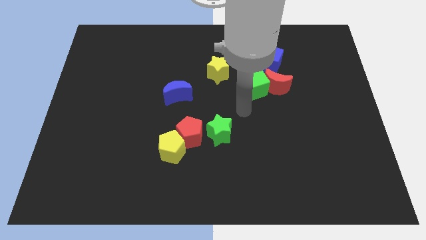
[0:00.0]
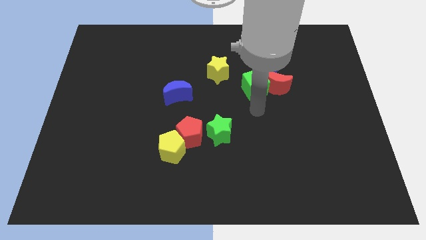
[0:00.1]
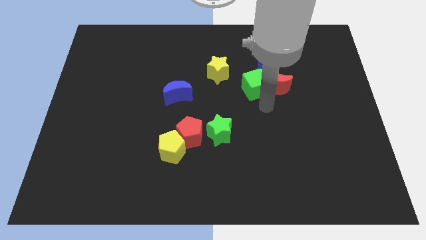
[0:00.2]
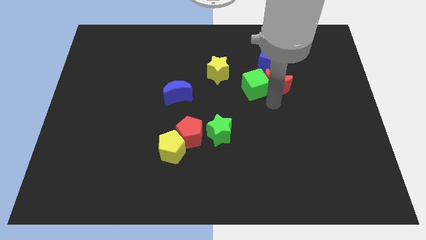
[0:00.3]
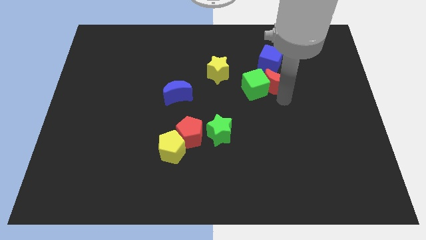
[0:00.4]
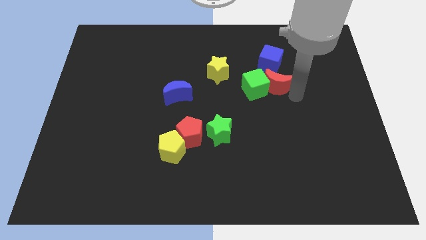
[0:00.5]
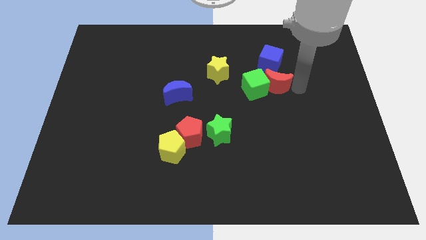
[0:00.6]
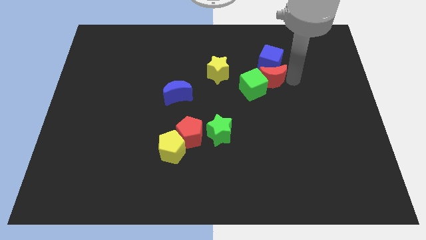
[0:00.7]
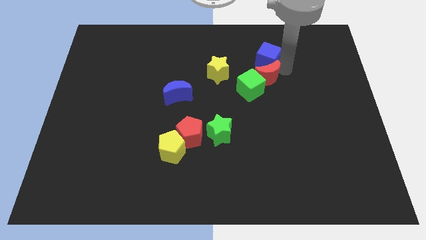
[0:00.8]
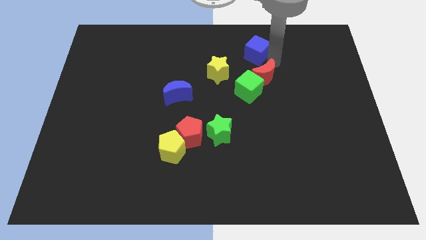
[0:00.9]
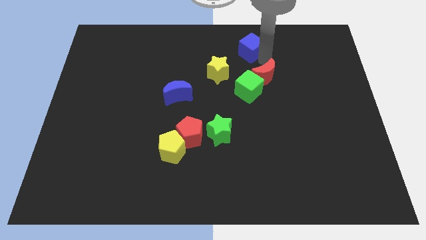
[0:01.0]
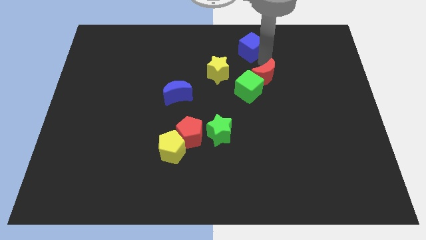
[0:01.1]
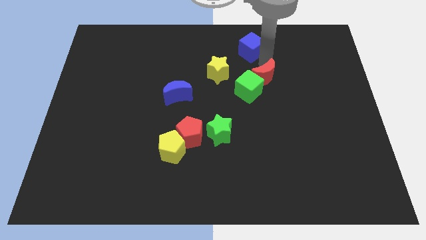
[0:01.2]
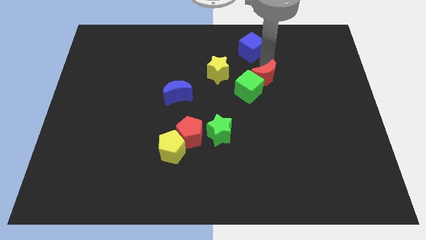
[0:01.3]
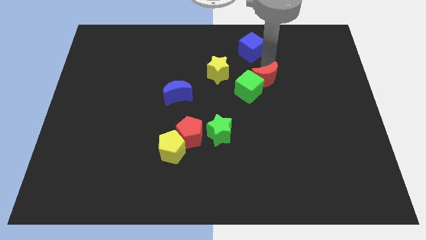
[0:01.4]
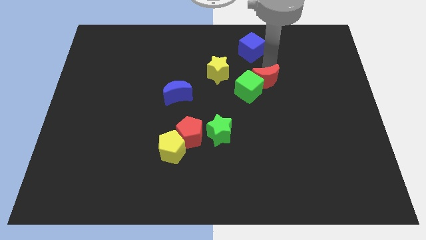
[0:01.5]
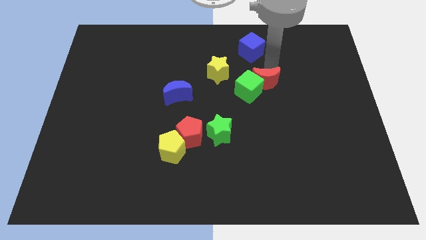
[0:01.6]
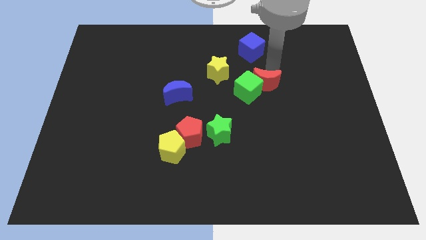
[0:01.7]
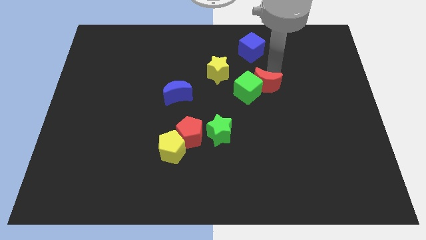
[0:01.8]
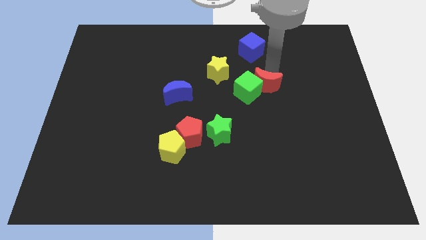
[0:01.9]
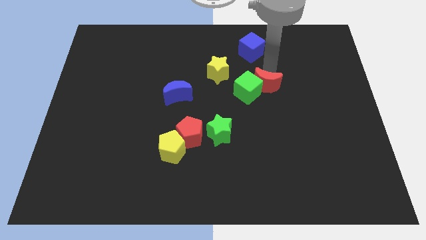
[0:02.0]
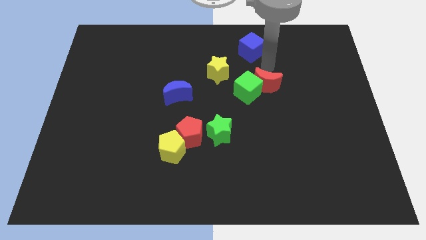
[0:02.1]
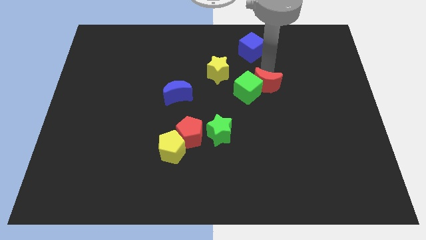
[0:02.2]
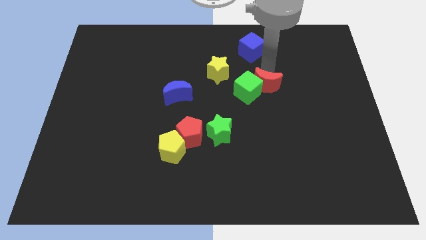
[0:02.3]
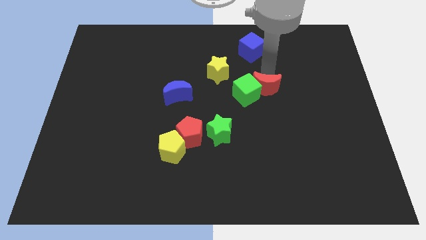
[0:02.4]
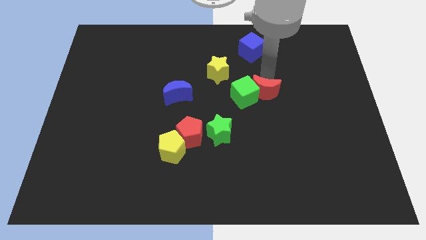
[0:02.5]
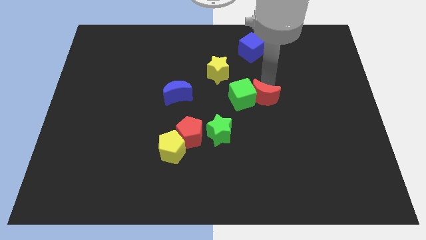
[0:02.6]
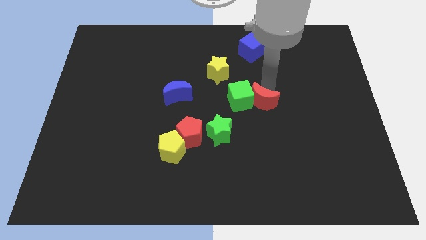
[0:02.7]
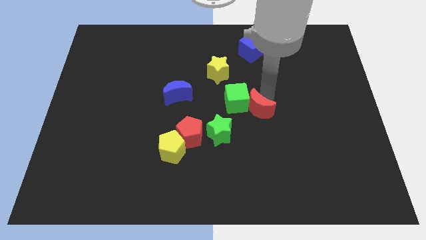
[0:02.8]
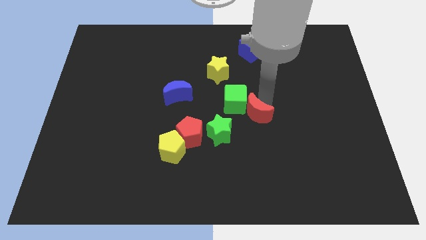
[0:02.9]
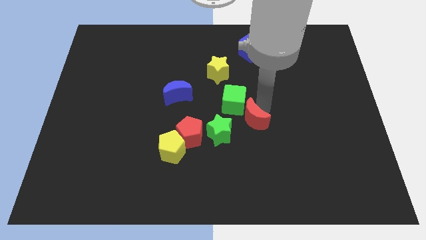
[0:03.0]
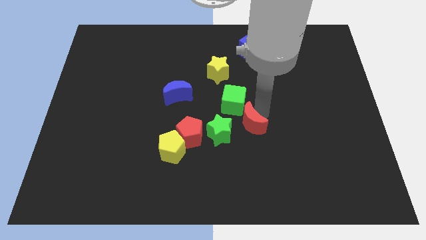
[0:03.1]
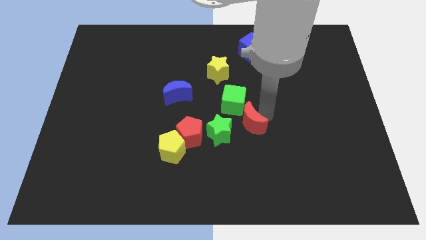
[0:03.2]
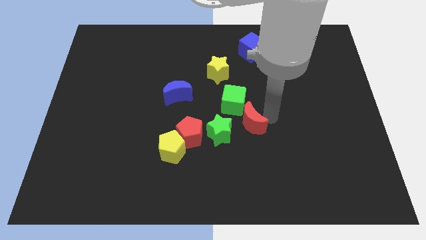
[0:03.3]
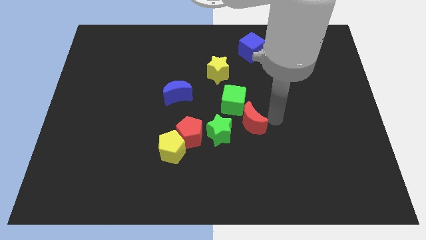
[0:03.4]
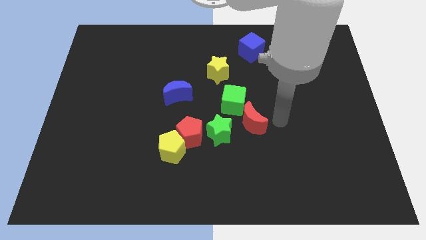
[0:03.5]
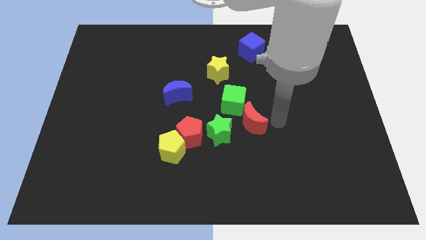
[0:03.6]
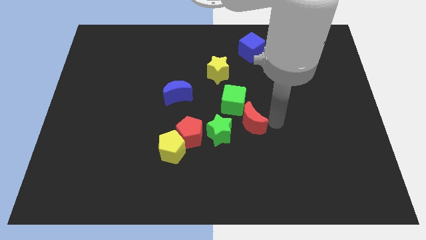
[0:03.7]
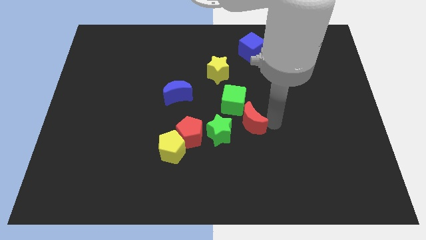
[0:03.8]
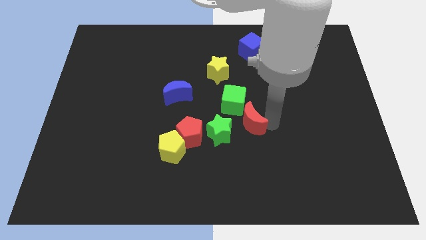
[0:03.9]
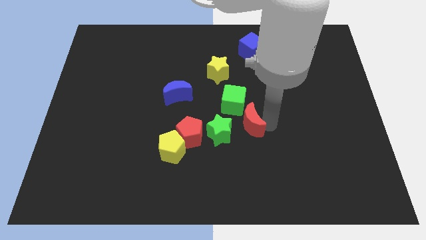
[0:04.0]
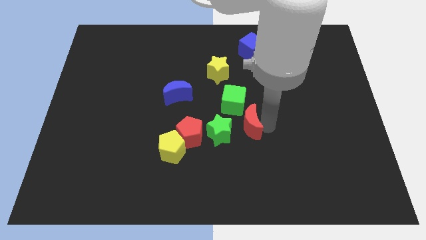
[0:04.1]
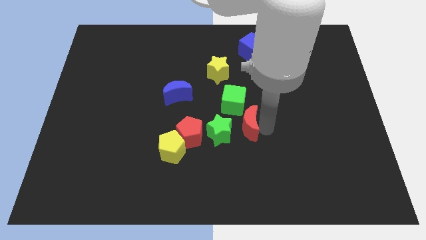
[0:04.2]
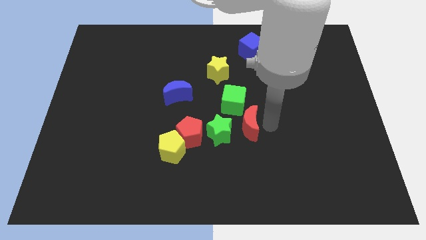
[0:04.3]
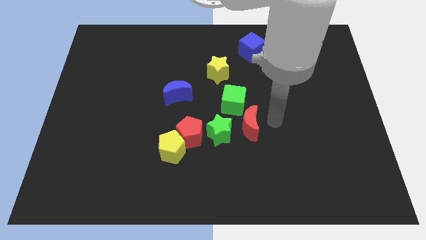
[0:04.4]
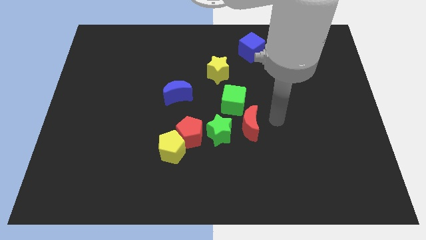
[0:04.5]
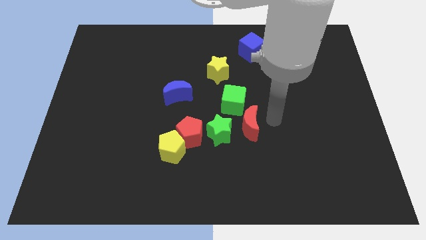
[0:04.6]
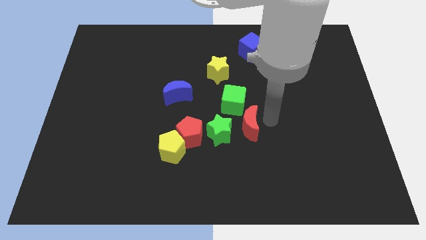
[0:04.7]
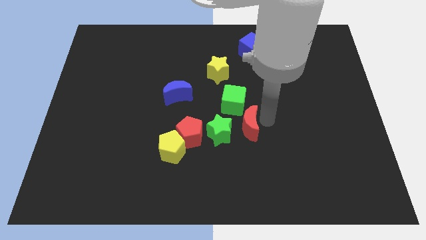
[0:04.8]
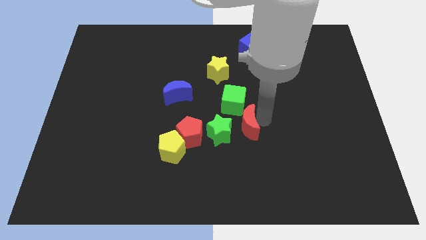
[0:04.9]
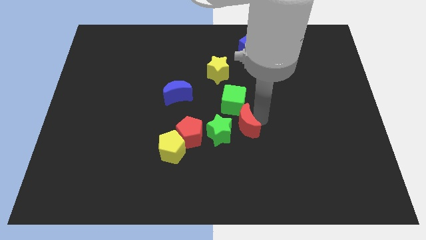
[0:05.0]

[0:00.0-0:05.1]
put the red moon to the green star

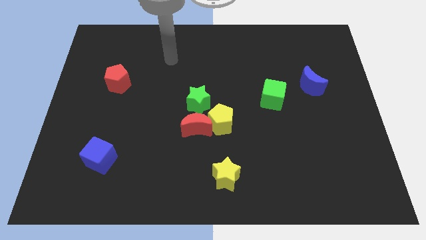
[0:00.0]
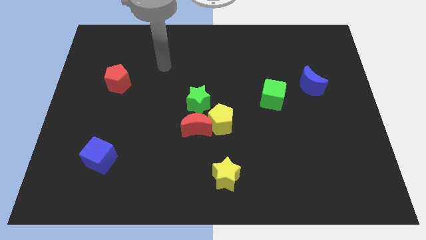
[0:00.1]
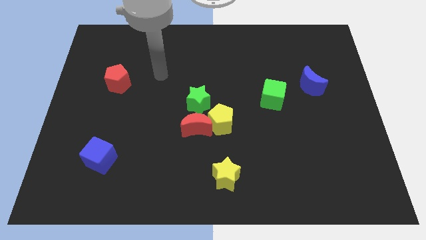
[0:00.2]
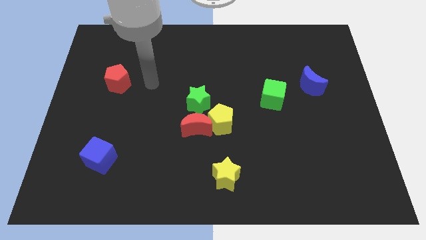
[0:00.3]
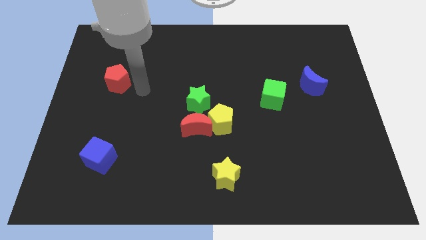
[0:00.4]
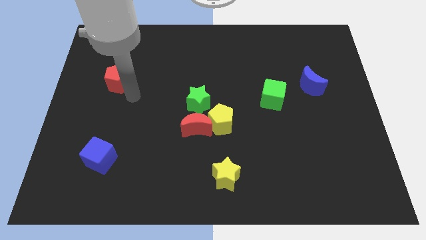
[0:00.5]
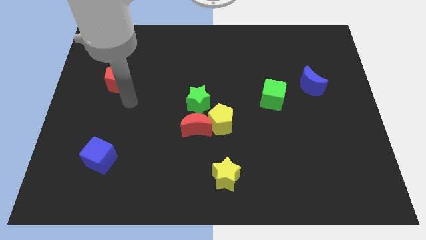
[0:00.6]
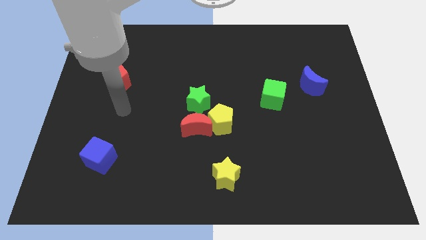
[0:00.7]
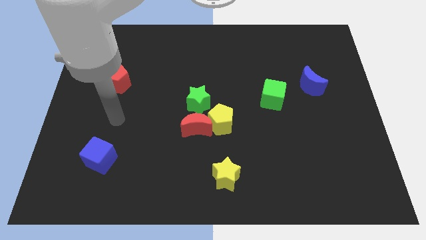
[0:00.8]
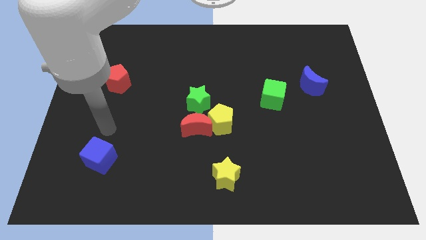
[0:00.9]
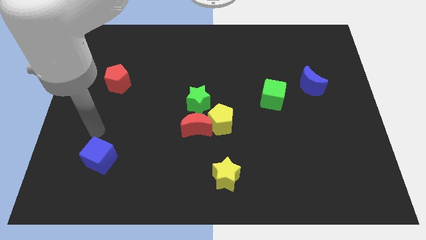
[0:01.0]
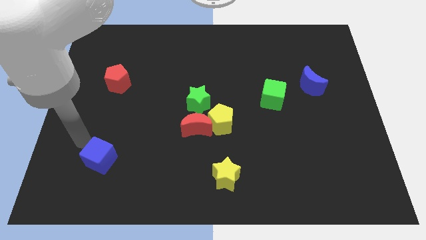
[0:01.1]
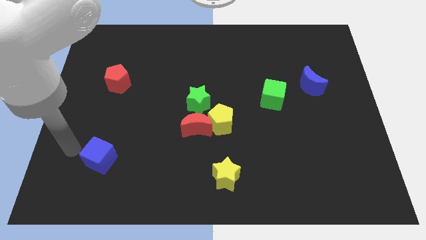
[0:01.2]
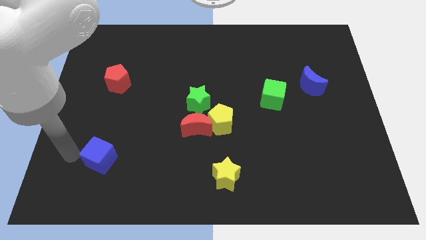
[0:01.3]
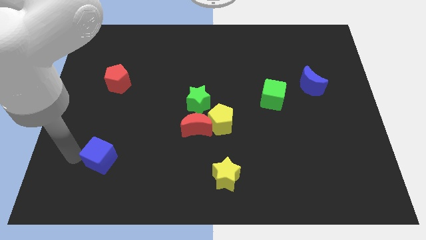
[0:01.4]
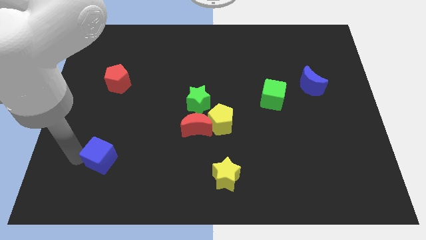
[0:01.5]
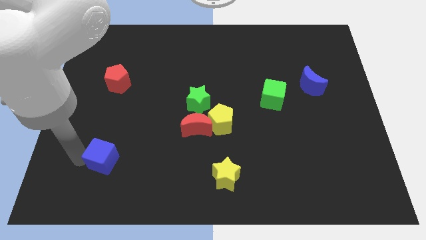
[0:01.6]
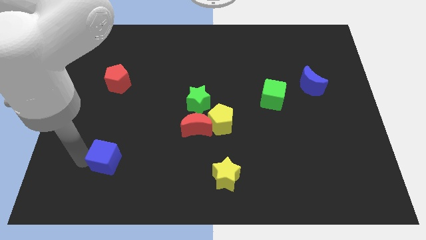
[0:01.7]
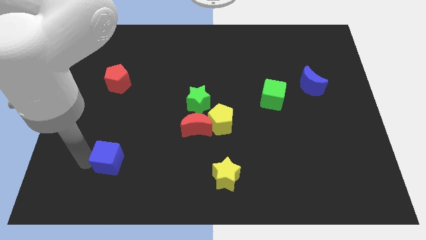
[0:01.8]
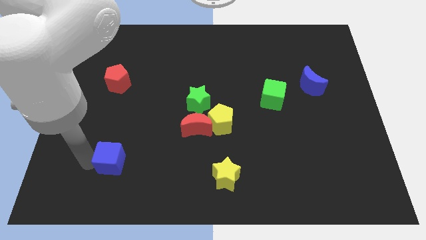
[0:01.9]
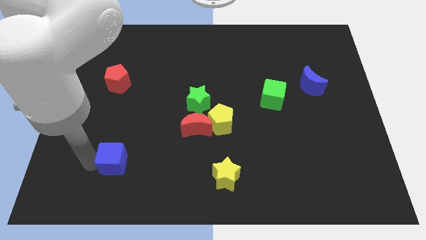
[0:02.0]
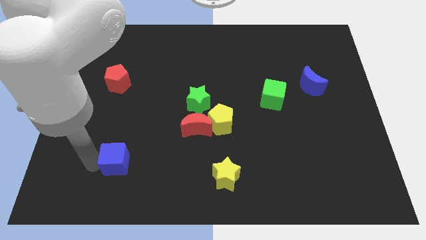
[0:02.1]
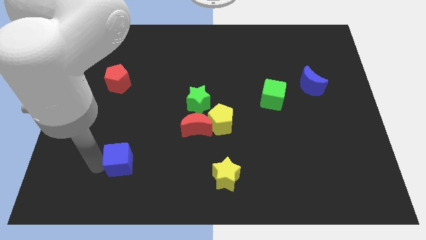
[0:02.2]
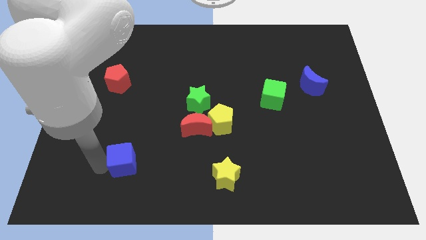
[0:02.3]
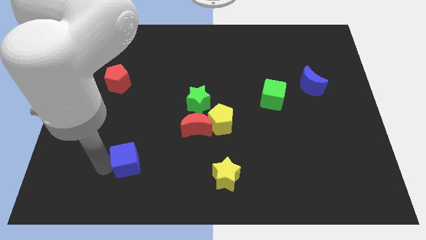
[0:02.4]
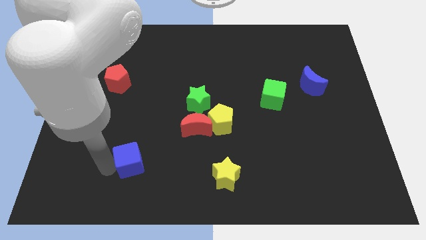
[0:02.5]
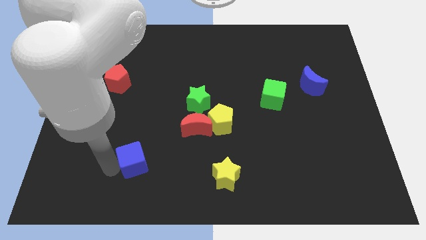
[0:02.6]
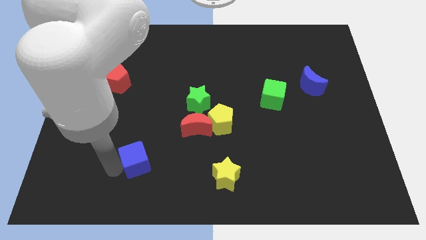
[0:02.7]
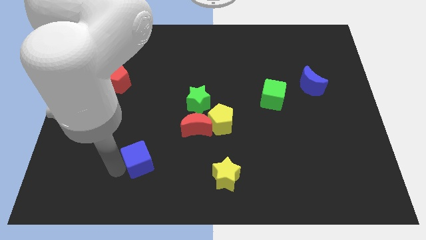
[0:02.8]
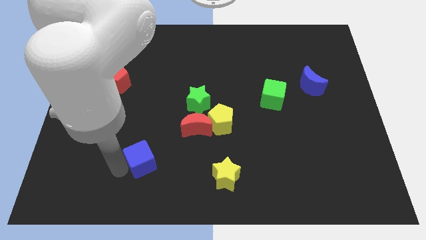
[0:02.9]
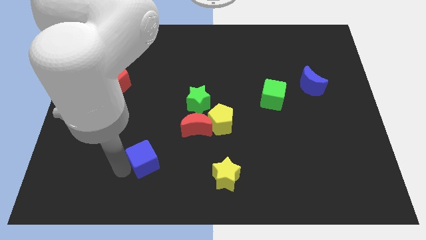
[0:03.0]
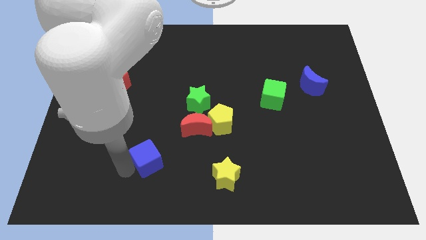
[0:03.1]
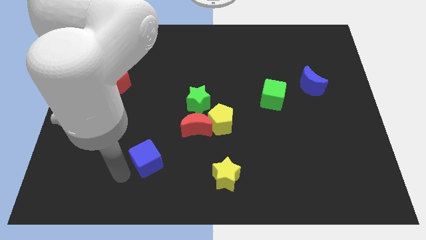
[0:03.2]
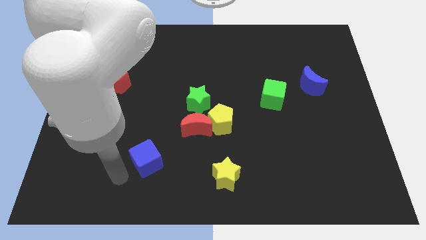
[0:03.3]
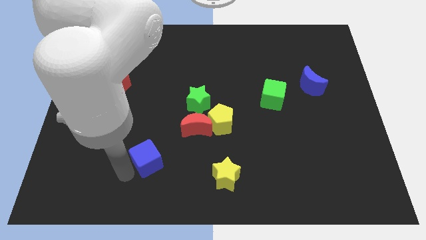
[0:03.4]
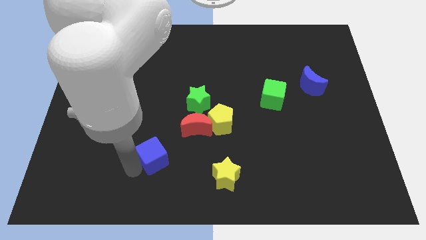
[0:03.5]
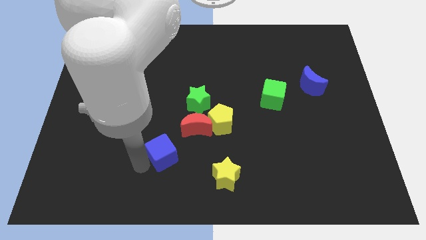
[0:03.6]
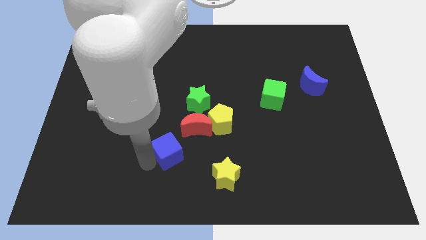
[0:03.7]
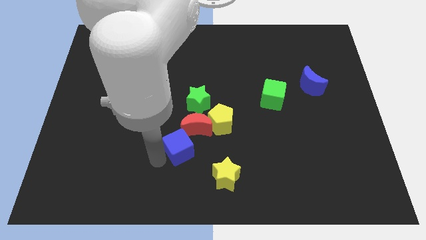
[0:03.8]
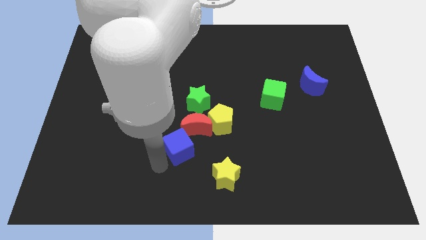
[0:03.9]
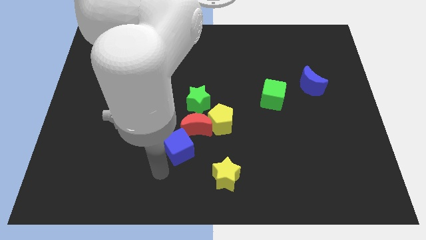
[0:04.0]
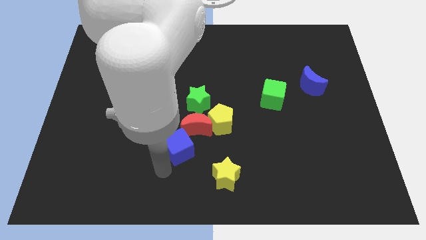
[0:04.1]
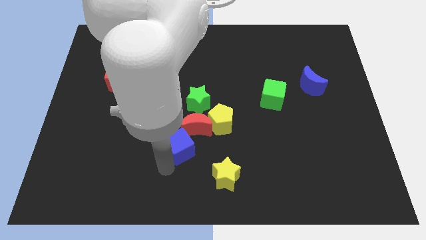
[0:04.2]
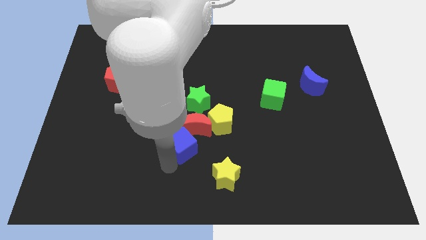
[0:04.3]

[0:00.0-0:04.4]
put the blue cube towards the red moon
